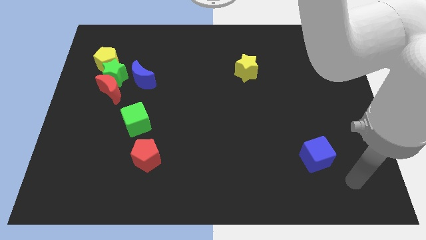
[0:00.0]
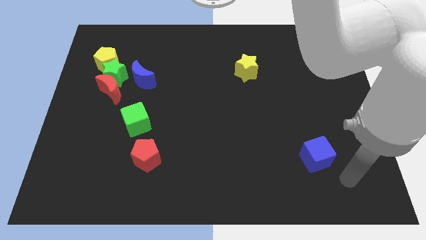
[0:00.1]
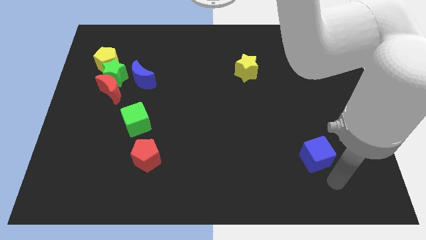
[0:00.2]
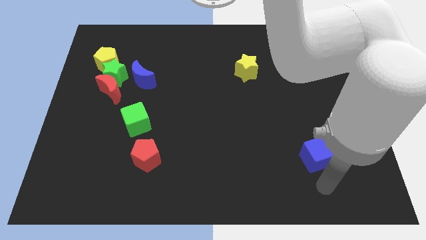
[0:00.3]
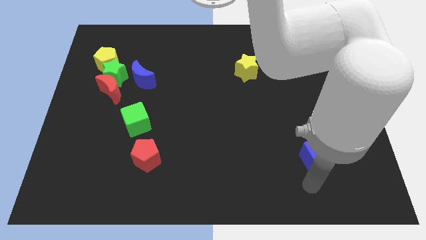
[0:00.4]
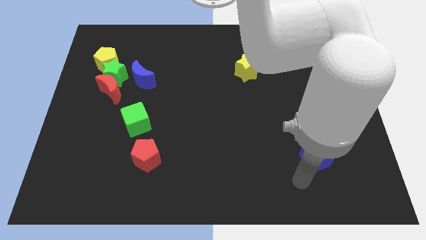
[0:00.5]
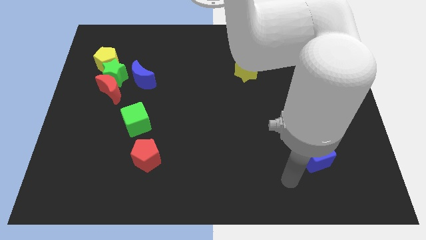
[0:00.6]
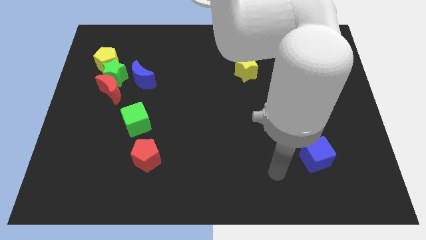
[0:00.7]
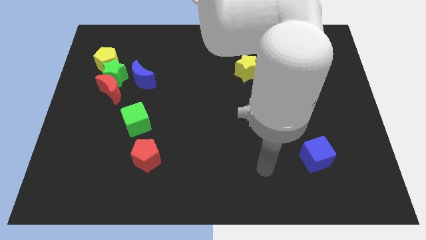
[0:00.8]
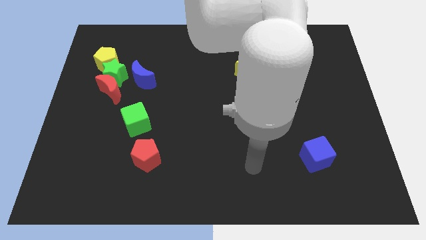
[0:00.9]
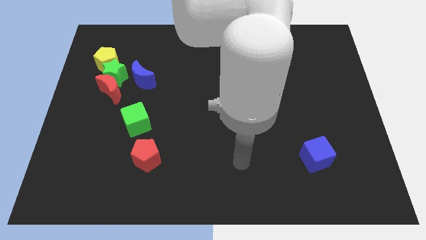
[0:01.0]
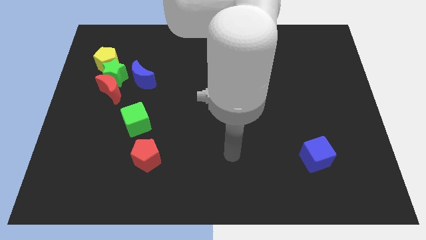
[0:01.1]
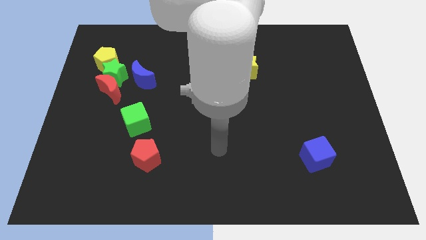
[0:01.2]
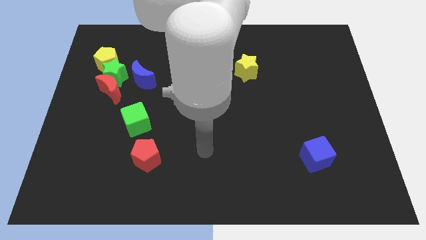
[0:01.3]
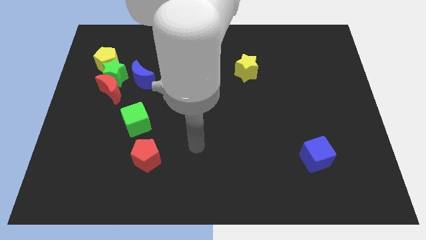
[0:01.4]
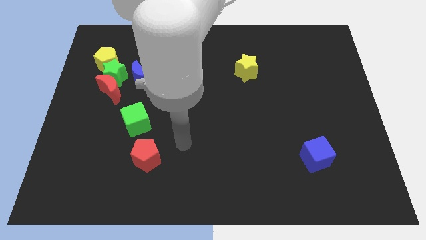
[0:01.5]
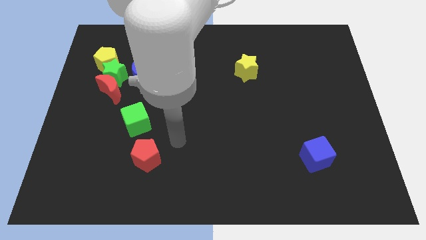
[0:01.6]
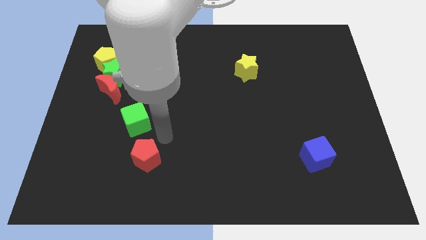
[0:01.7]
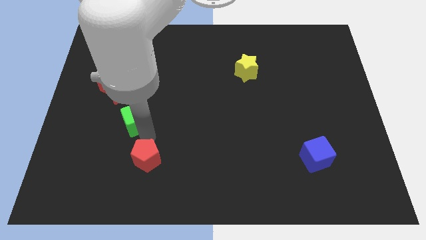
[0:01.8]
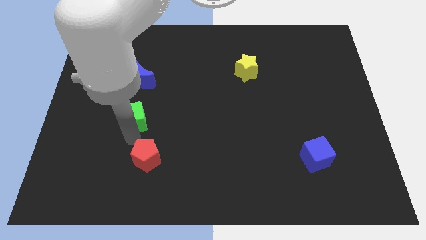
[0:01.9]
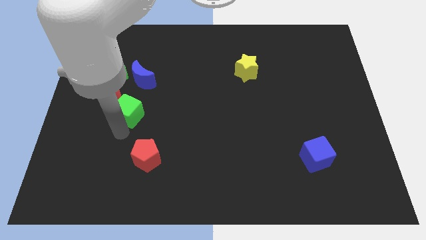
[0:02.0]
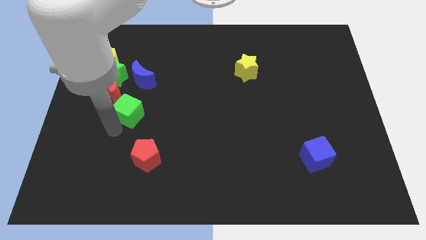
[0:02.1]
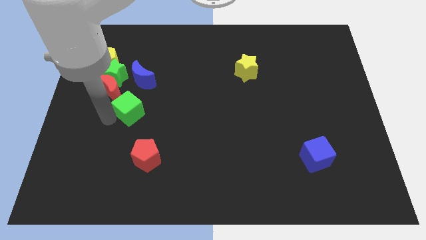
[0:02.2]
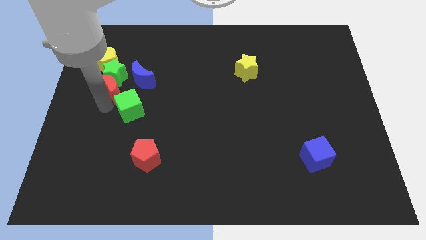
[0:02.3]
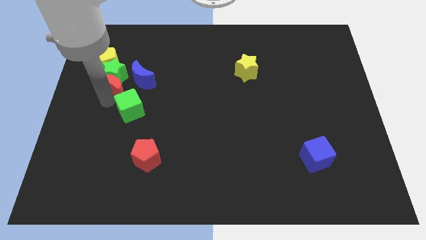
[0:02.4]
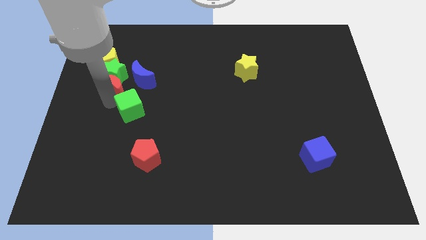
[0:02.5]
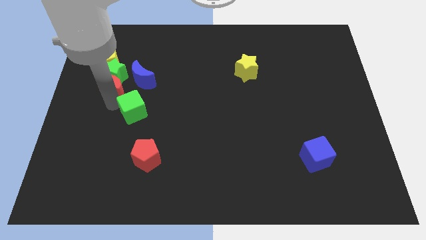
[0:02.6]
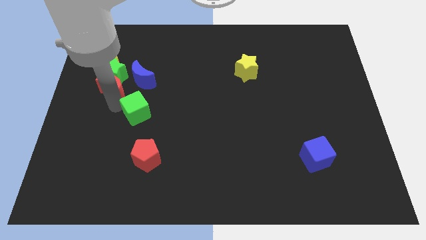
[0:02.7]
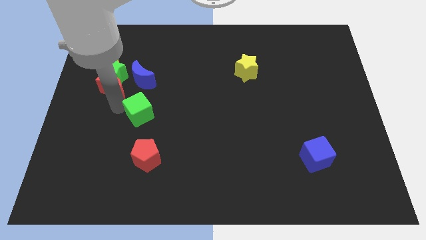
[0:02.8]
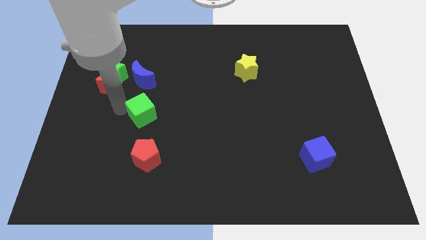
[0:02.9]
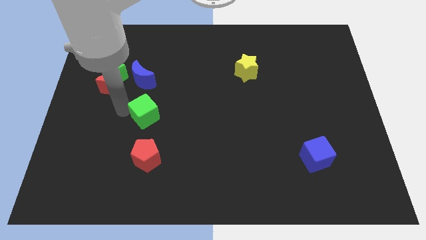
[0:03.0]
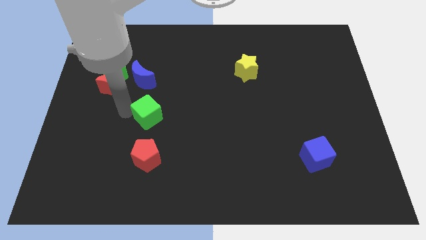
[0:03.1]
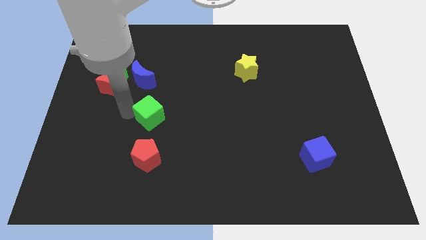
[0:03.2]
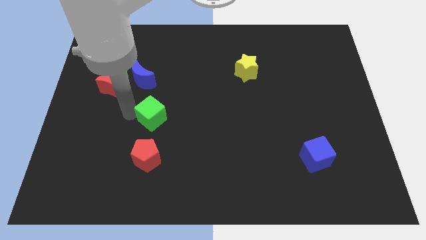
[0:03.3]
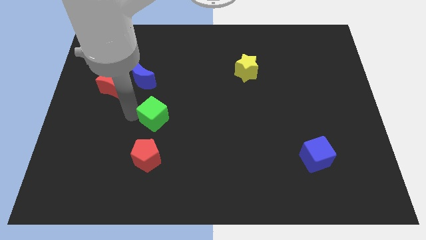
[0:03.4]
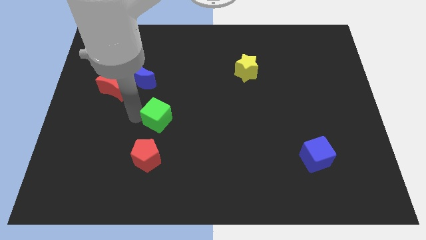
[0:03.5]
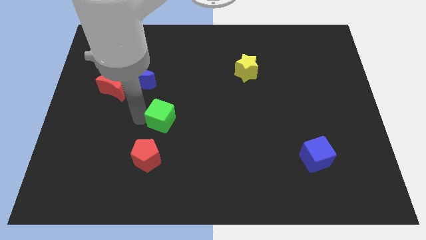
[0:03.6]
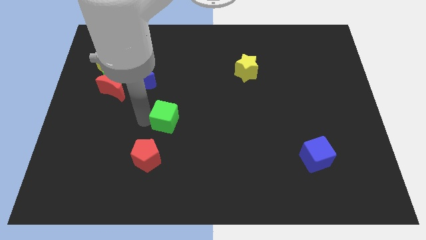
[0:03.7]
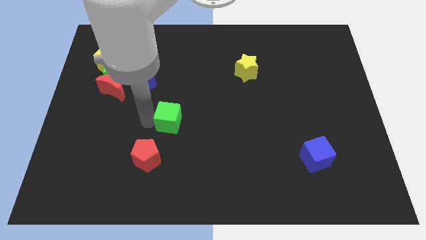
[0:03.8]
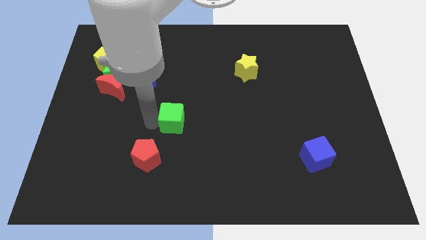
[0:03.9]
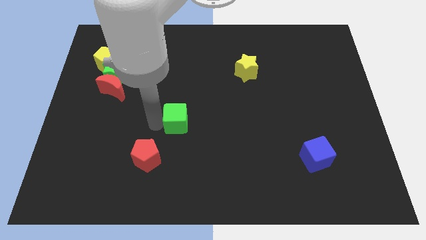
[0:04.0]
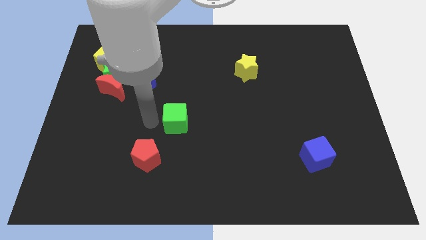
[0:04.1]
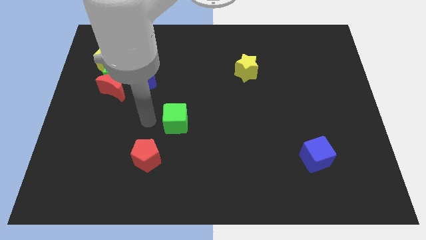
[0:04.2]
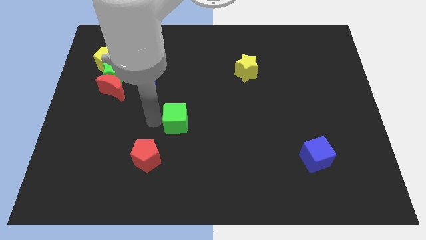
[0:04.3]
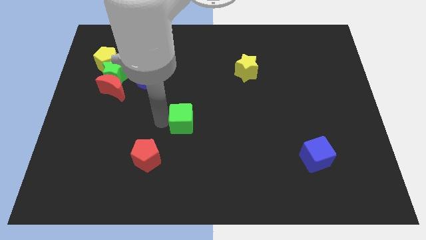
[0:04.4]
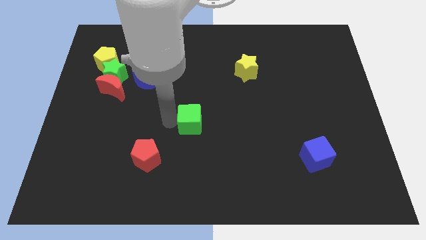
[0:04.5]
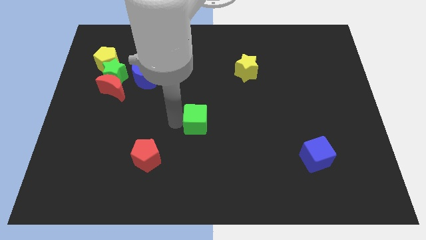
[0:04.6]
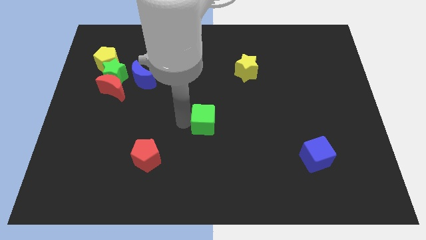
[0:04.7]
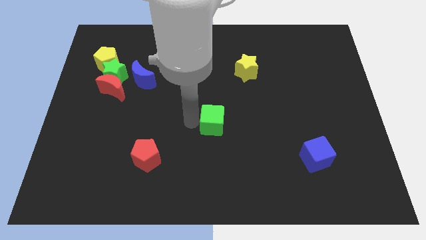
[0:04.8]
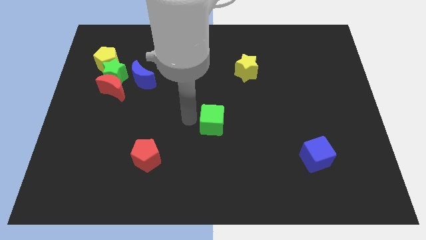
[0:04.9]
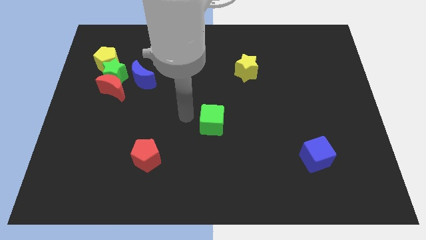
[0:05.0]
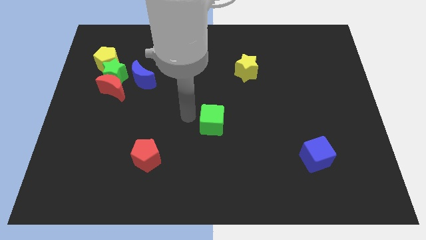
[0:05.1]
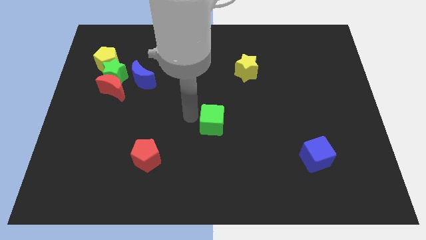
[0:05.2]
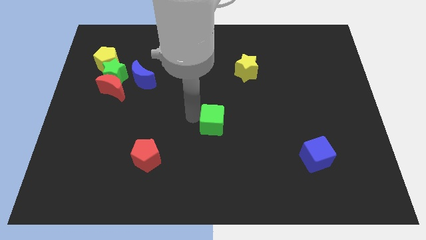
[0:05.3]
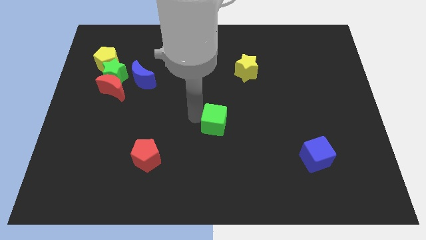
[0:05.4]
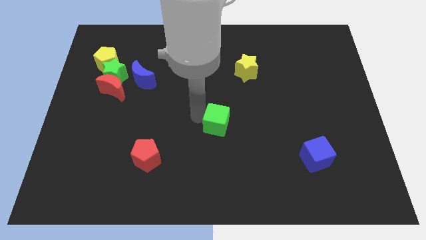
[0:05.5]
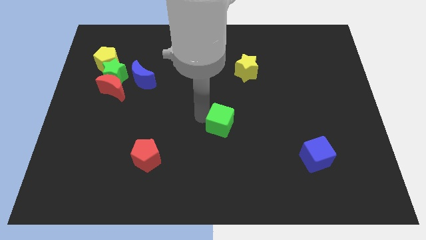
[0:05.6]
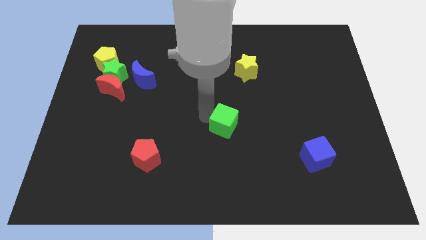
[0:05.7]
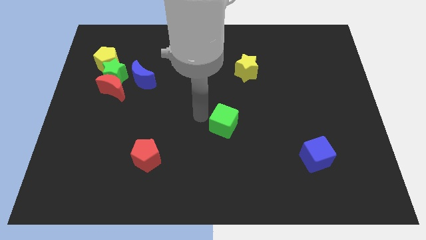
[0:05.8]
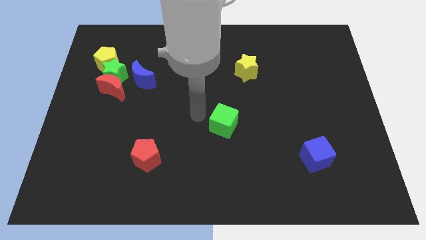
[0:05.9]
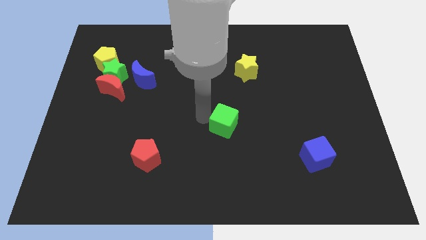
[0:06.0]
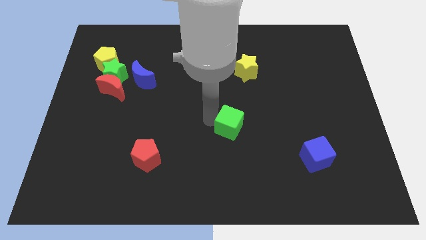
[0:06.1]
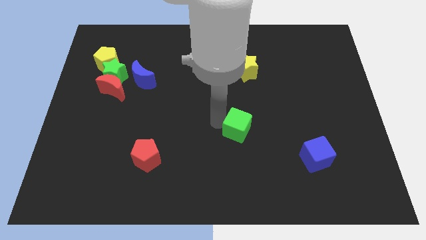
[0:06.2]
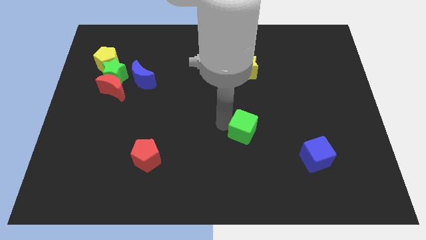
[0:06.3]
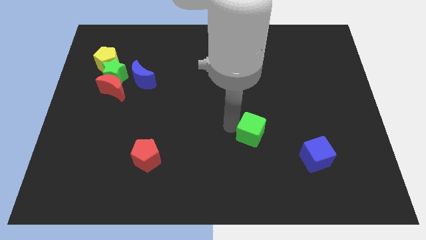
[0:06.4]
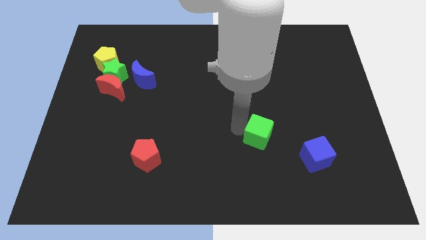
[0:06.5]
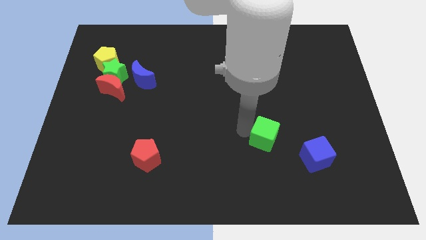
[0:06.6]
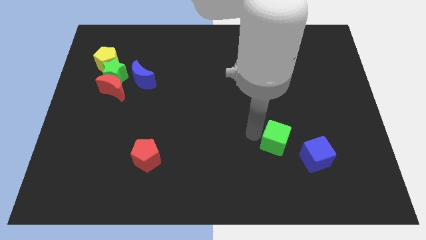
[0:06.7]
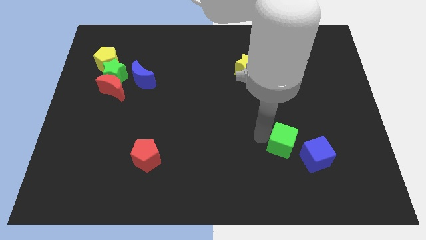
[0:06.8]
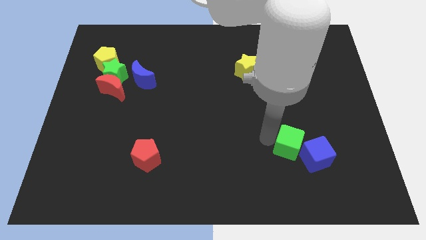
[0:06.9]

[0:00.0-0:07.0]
push the green cube to the blue cube
